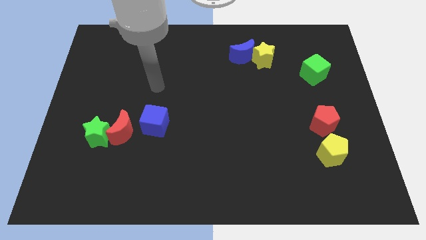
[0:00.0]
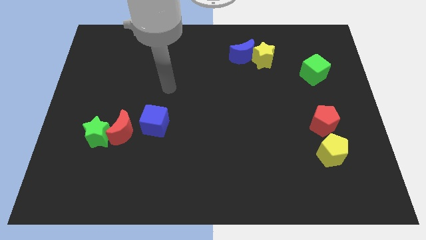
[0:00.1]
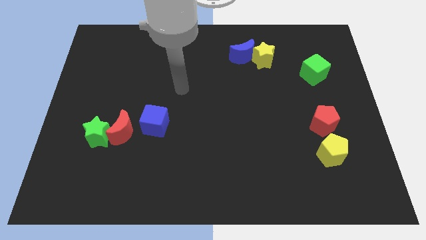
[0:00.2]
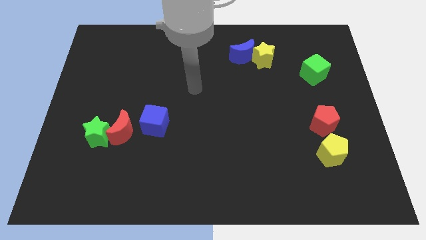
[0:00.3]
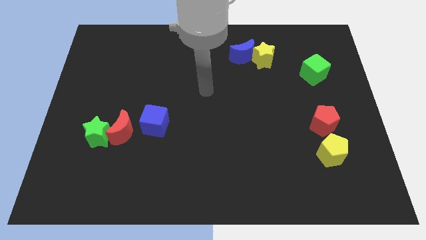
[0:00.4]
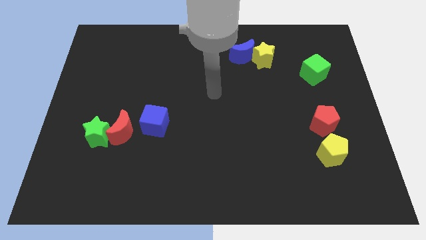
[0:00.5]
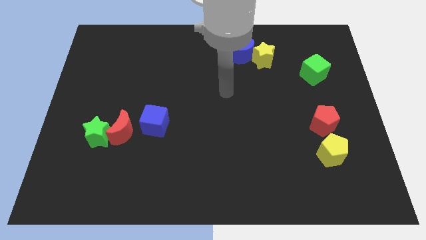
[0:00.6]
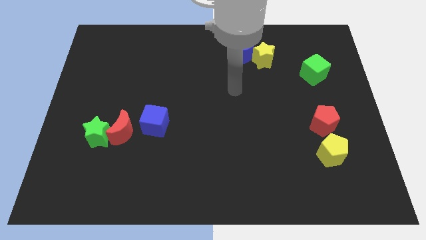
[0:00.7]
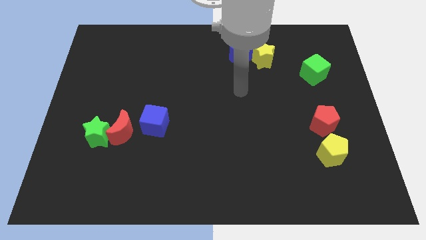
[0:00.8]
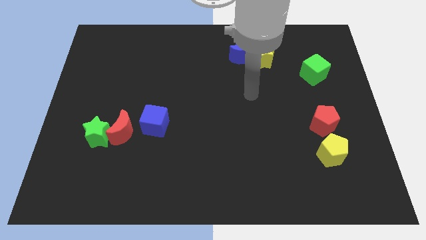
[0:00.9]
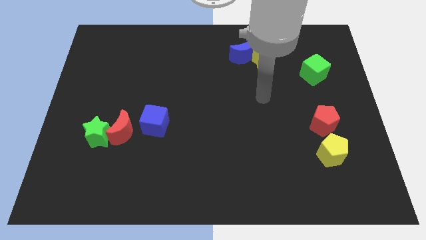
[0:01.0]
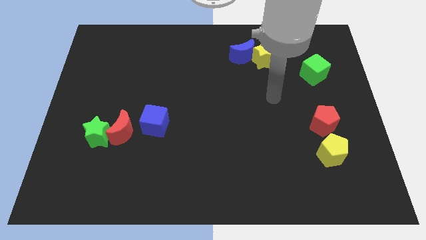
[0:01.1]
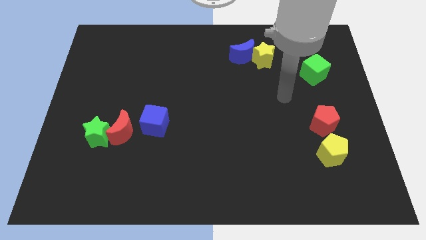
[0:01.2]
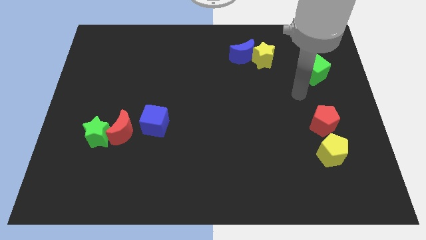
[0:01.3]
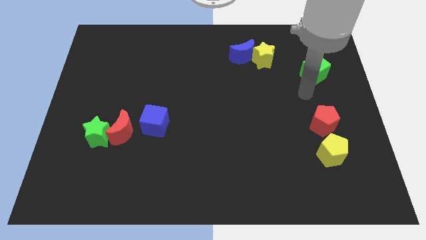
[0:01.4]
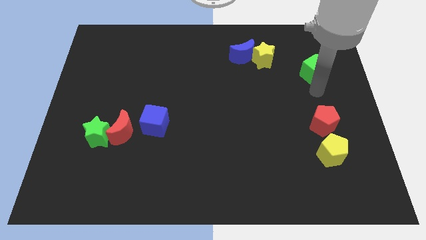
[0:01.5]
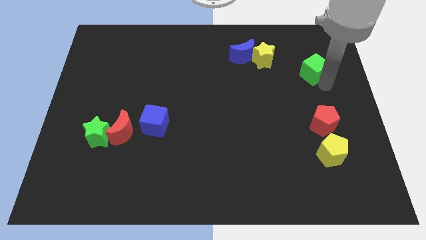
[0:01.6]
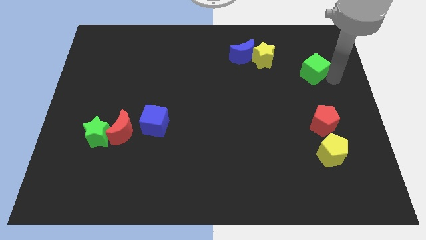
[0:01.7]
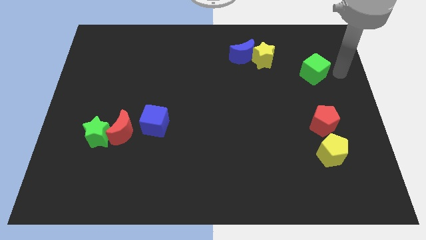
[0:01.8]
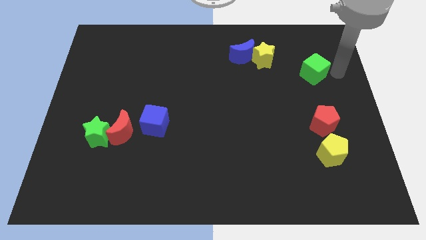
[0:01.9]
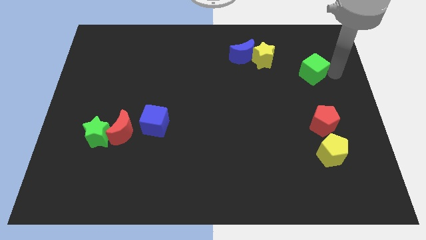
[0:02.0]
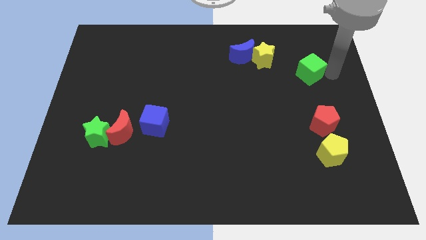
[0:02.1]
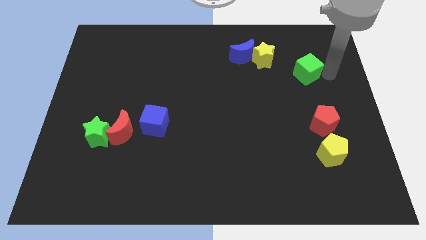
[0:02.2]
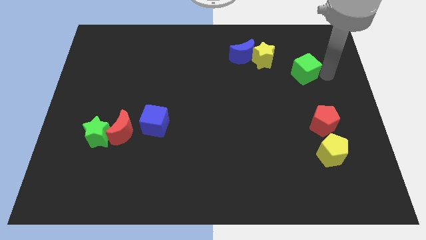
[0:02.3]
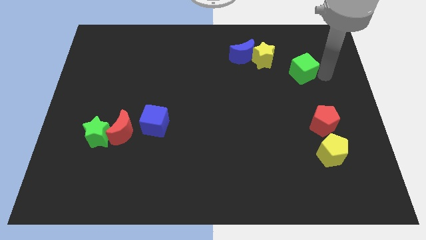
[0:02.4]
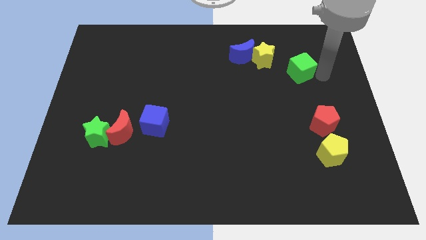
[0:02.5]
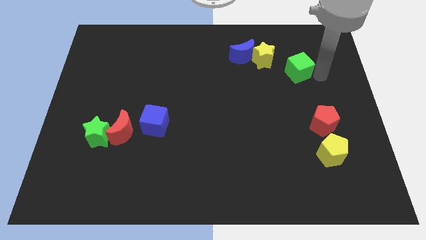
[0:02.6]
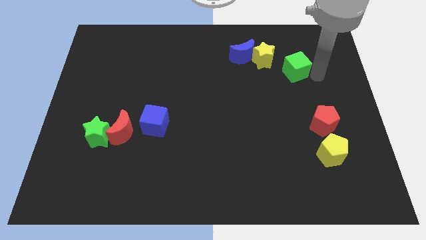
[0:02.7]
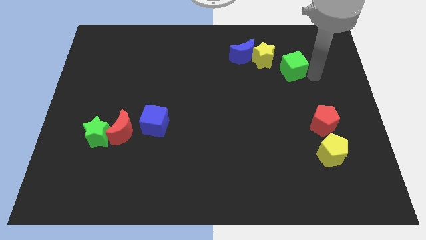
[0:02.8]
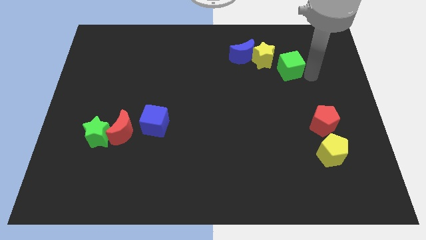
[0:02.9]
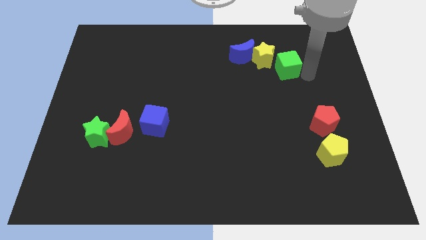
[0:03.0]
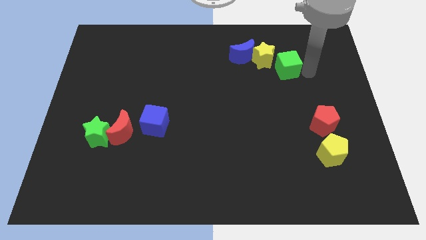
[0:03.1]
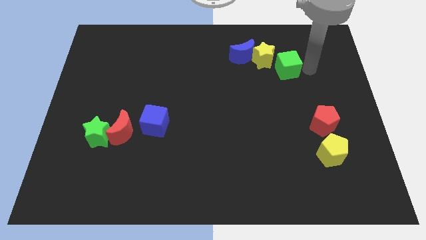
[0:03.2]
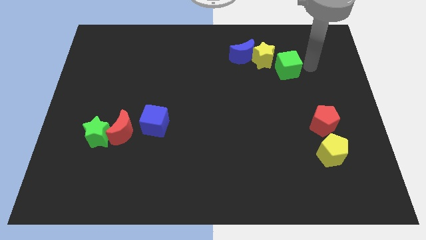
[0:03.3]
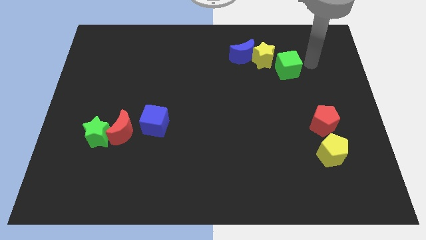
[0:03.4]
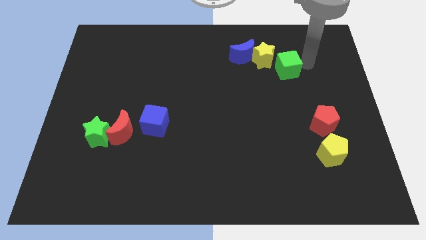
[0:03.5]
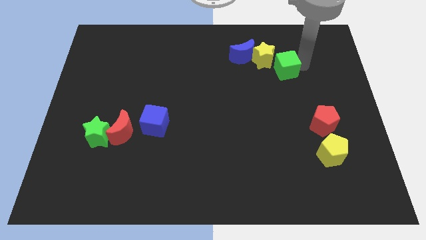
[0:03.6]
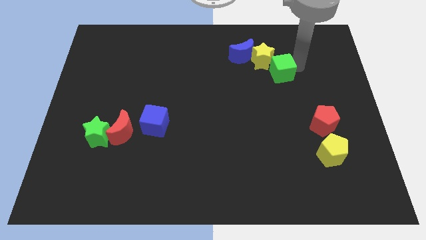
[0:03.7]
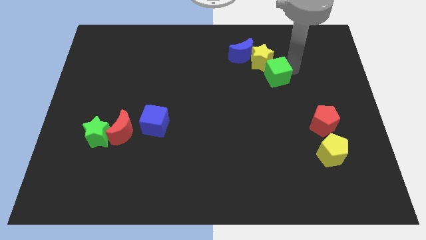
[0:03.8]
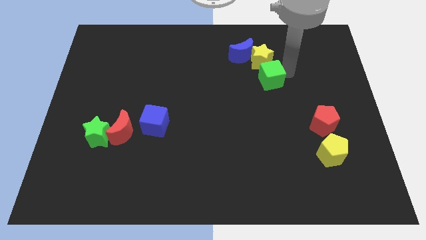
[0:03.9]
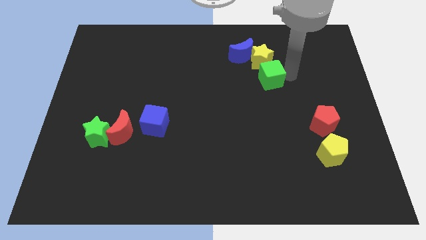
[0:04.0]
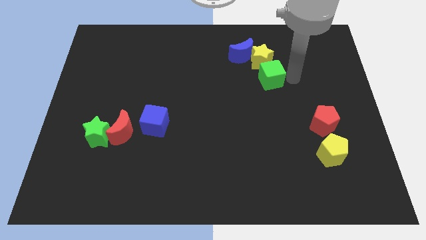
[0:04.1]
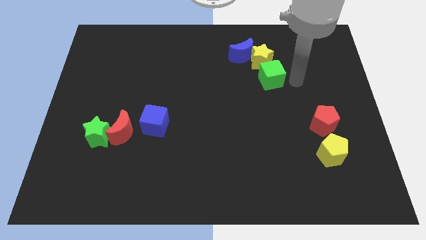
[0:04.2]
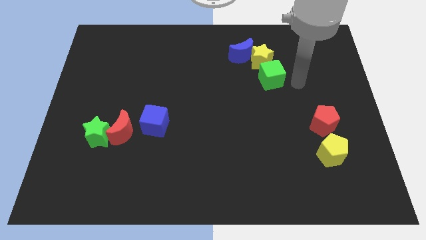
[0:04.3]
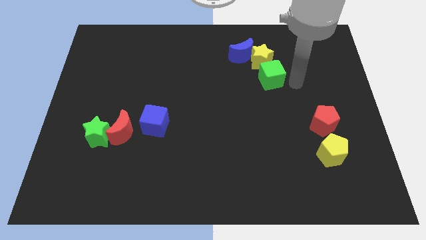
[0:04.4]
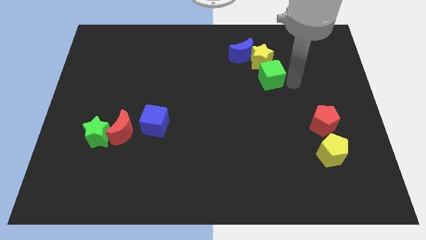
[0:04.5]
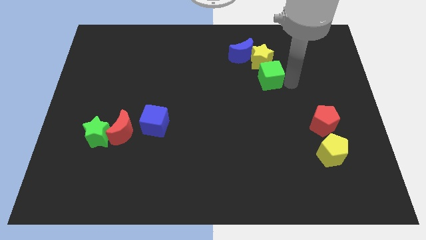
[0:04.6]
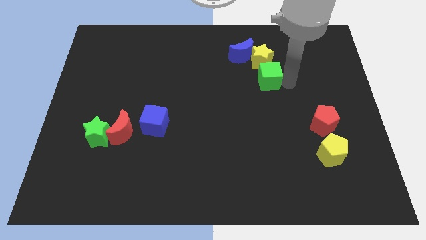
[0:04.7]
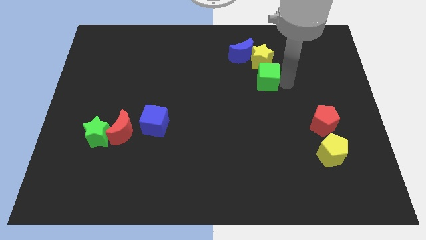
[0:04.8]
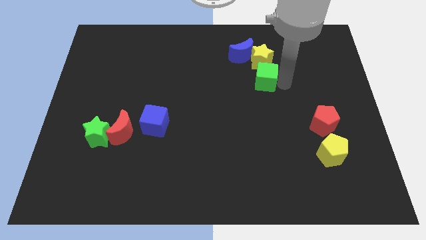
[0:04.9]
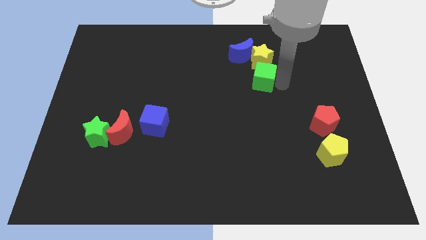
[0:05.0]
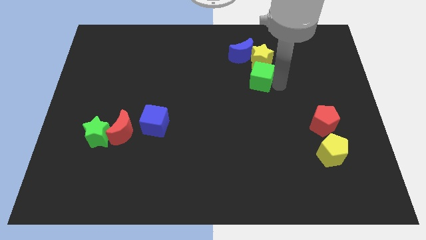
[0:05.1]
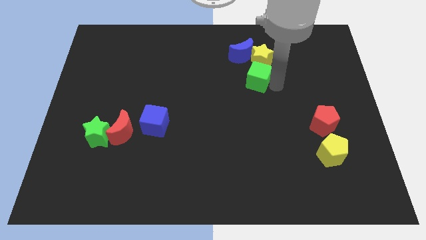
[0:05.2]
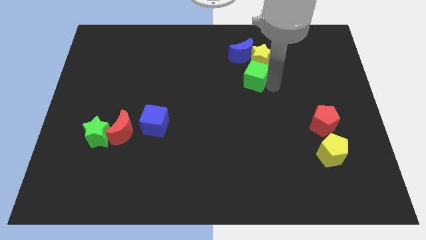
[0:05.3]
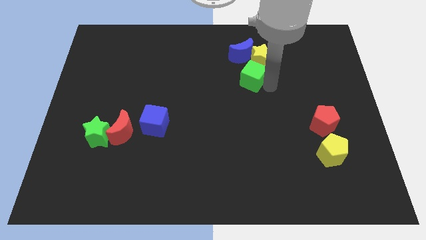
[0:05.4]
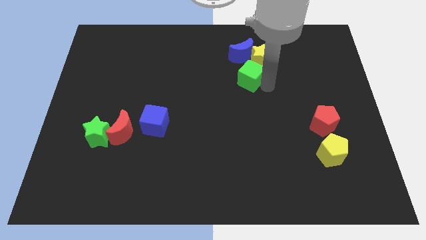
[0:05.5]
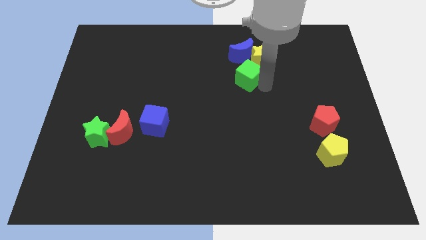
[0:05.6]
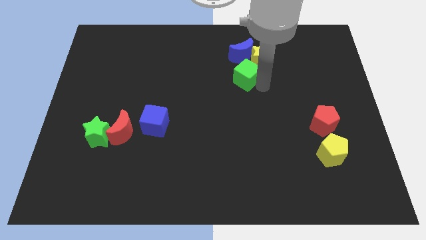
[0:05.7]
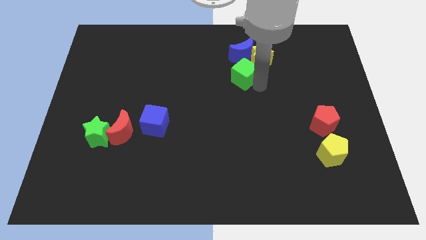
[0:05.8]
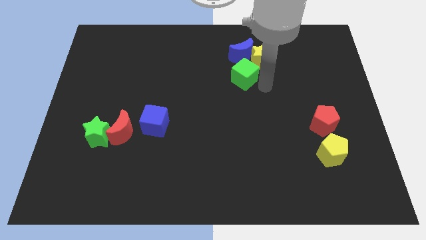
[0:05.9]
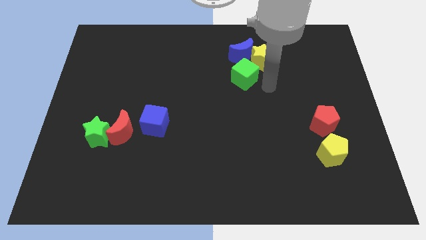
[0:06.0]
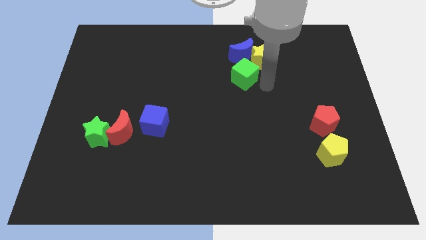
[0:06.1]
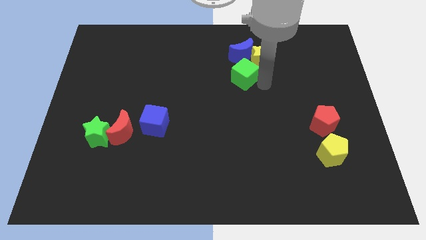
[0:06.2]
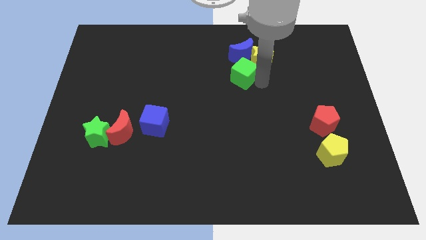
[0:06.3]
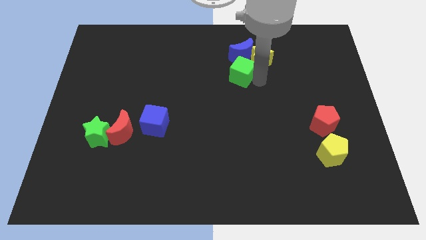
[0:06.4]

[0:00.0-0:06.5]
put the green cube diagonally down and to the left of the blue moon

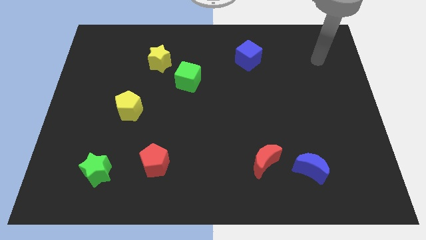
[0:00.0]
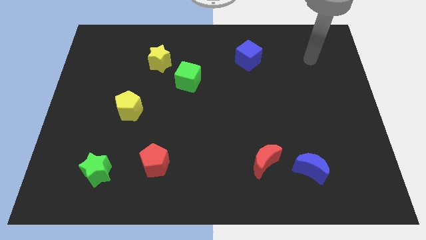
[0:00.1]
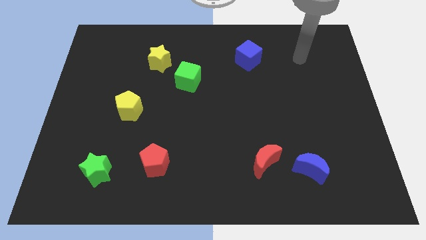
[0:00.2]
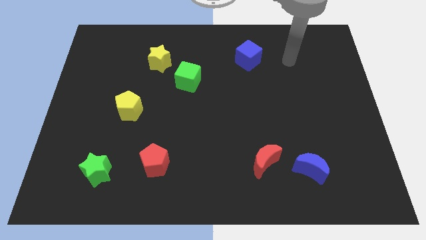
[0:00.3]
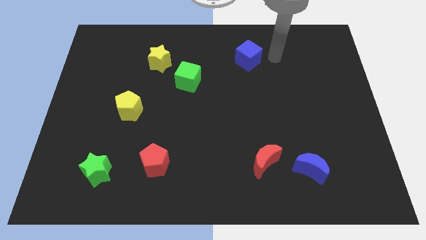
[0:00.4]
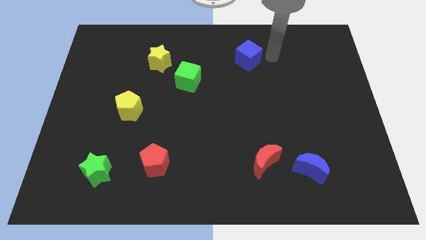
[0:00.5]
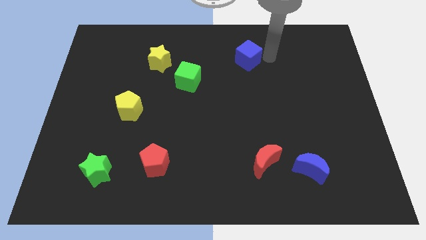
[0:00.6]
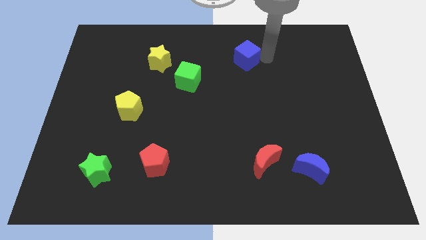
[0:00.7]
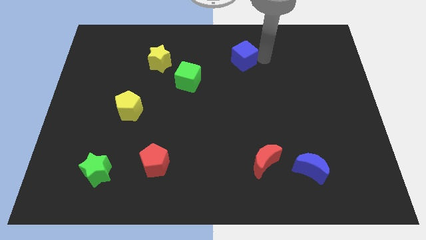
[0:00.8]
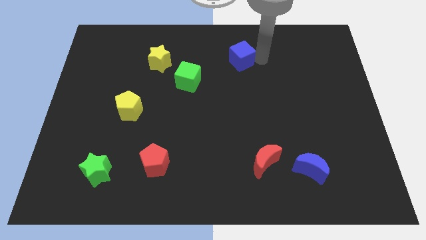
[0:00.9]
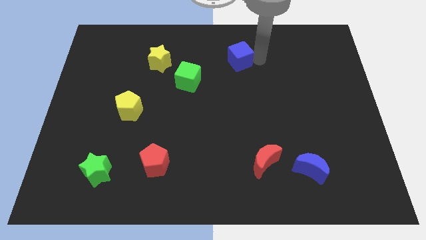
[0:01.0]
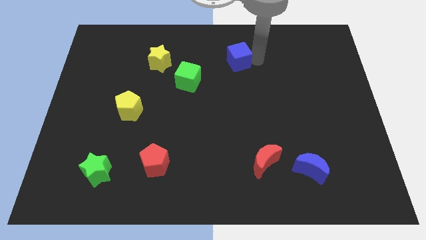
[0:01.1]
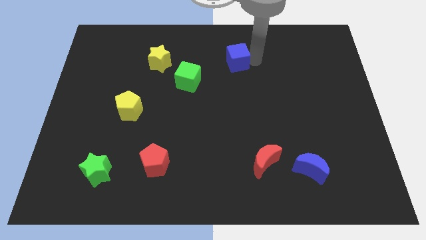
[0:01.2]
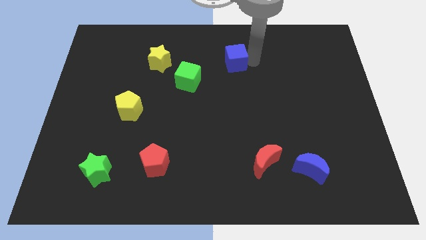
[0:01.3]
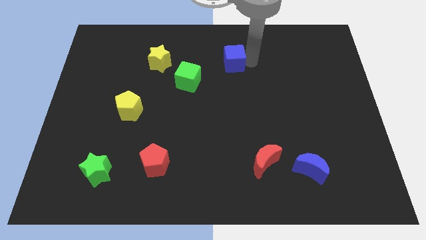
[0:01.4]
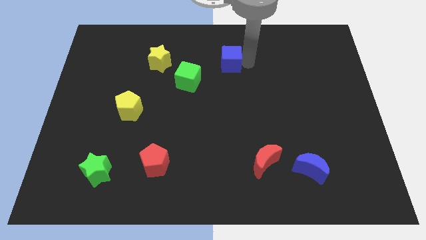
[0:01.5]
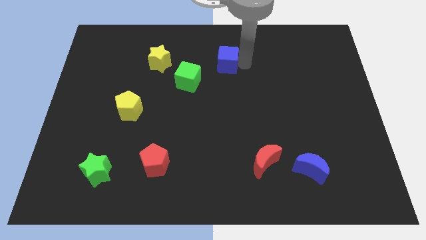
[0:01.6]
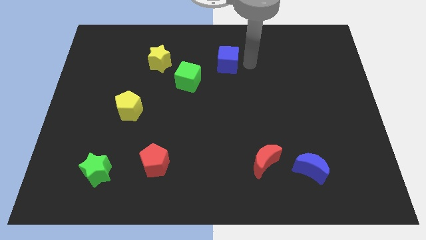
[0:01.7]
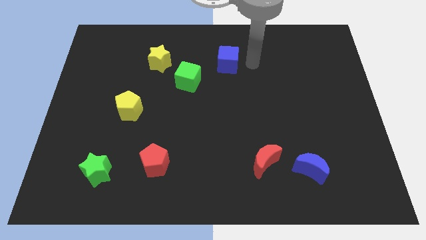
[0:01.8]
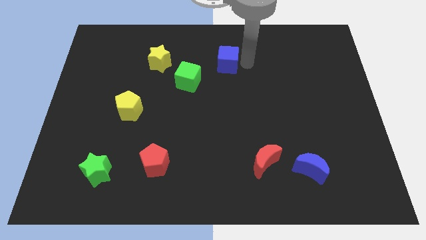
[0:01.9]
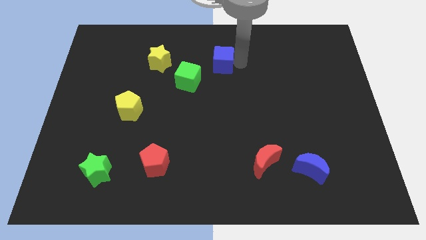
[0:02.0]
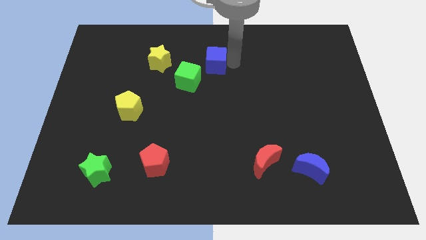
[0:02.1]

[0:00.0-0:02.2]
move the blue cube just right of the yellow star
